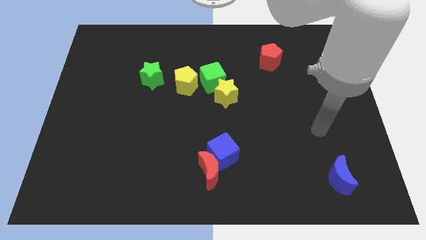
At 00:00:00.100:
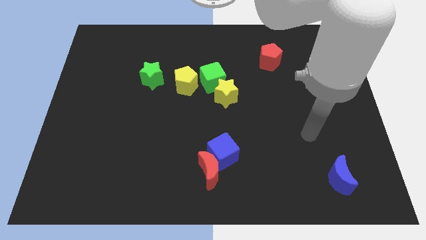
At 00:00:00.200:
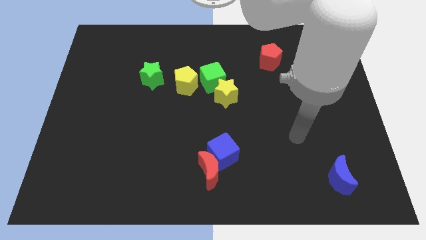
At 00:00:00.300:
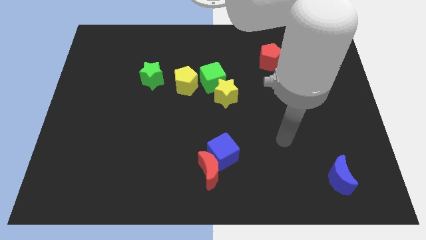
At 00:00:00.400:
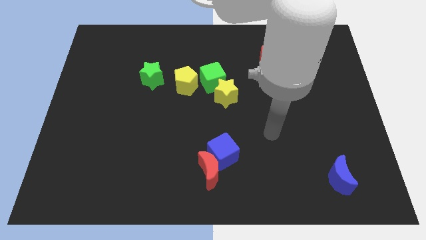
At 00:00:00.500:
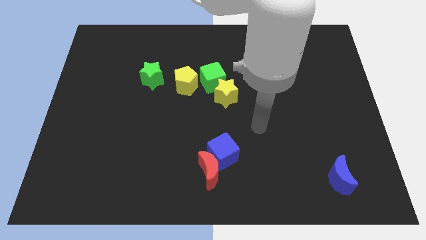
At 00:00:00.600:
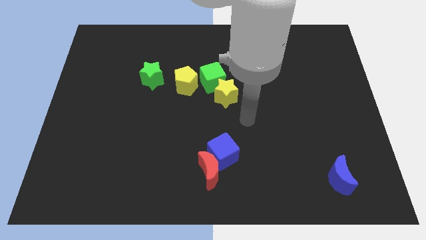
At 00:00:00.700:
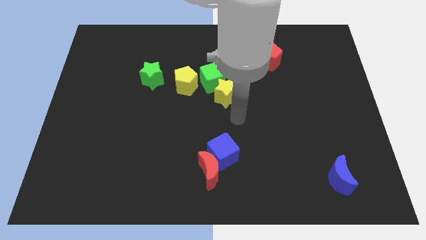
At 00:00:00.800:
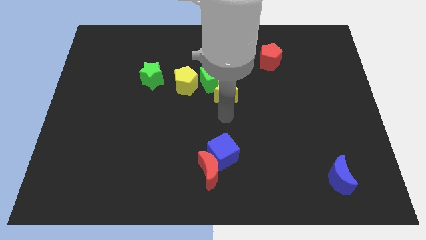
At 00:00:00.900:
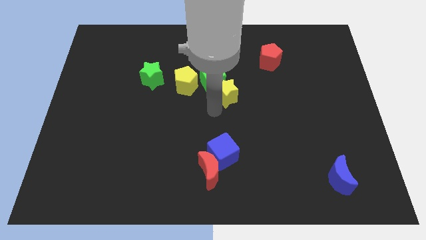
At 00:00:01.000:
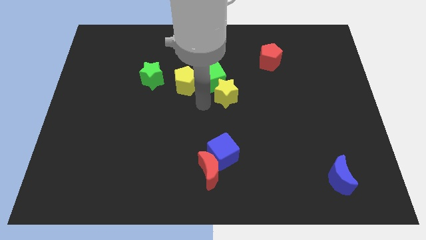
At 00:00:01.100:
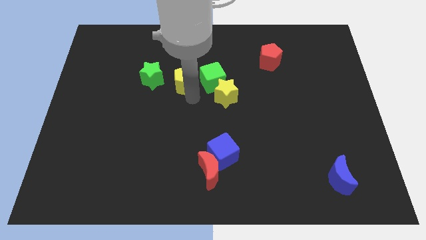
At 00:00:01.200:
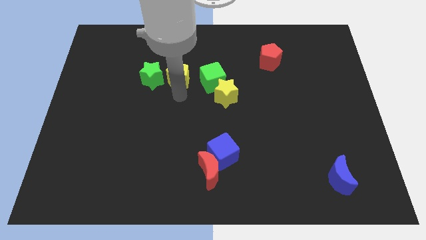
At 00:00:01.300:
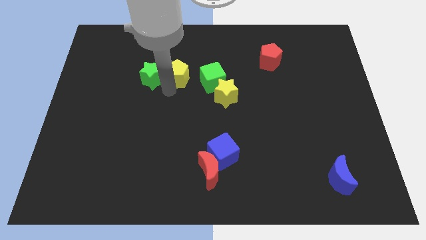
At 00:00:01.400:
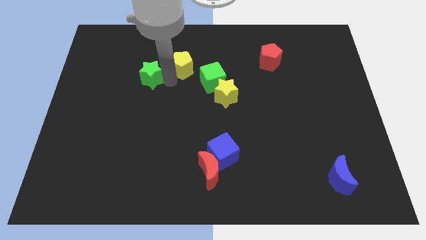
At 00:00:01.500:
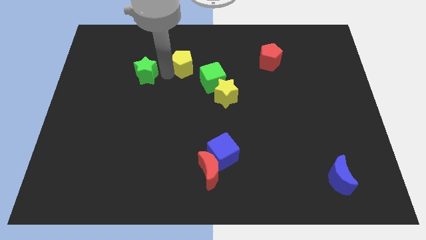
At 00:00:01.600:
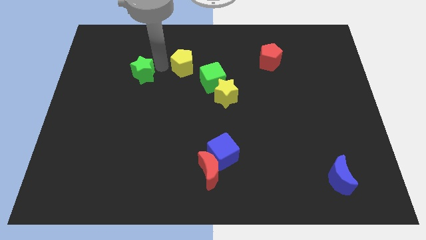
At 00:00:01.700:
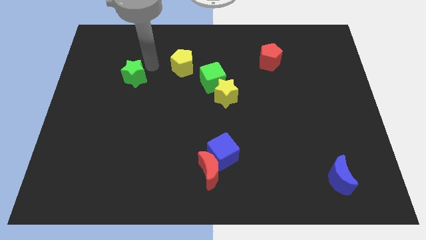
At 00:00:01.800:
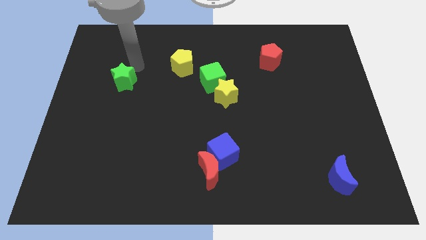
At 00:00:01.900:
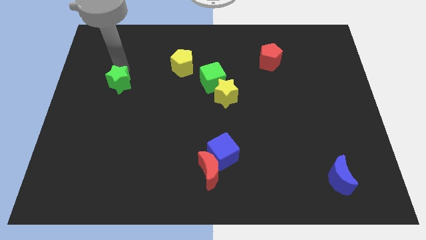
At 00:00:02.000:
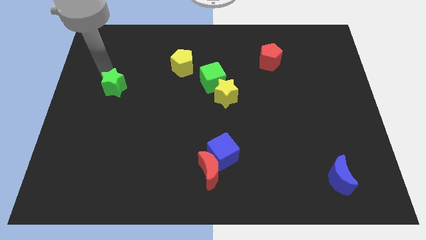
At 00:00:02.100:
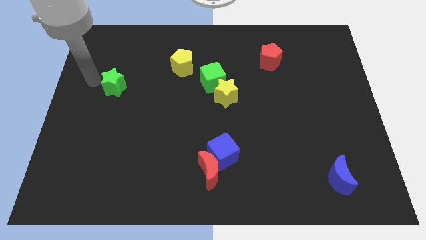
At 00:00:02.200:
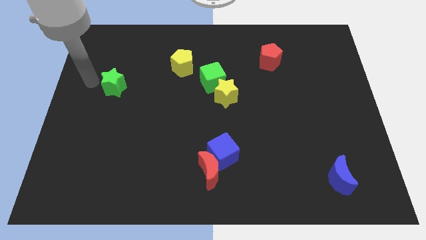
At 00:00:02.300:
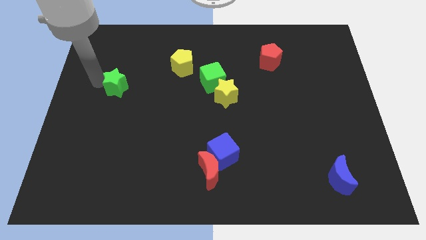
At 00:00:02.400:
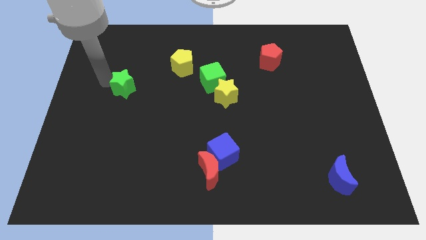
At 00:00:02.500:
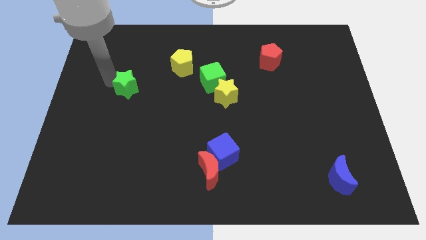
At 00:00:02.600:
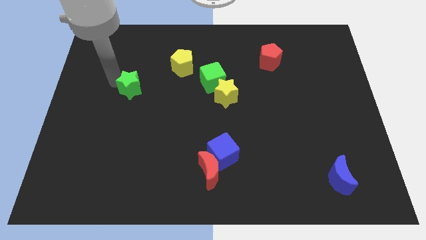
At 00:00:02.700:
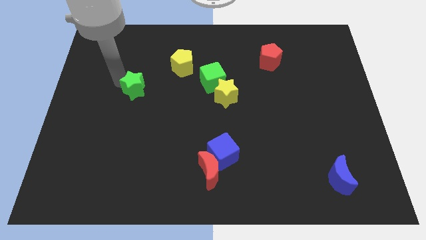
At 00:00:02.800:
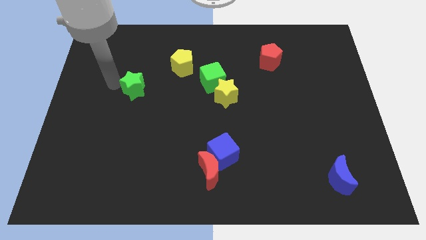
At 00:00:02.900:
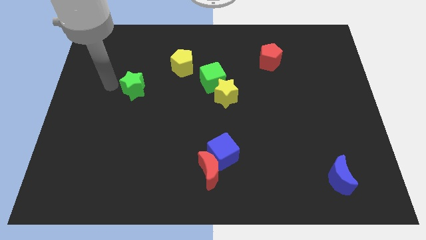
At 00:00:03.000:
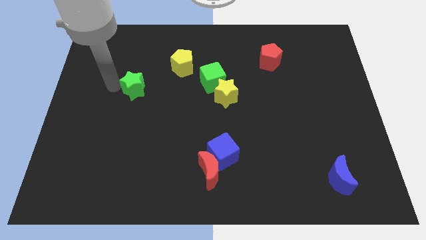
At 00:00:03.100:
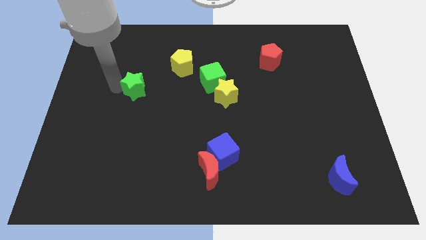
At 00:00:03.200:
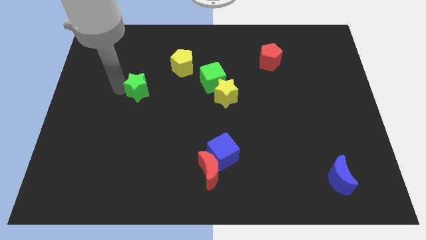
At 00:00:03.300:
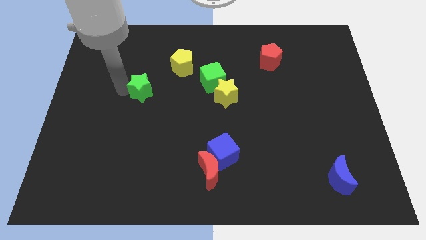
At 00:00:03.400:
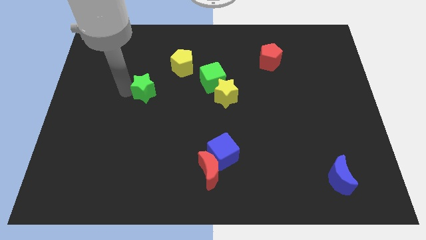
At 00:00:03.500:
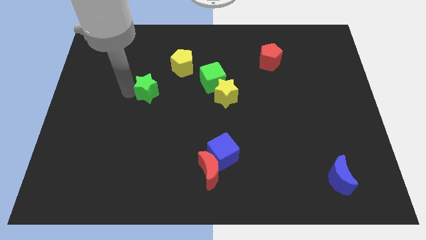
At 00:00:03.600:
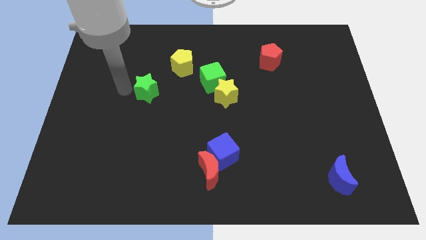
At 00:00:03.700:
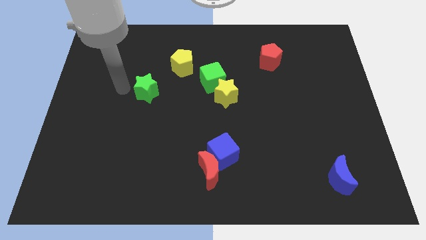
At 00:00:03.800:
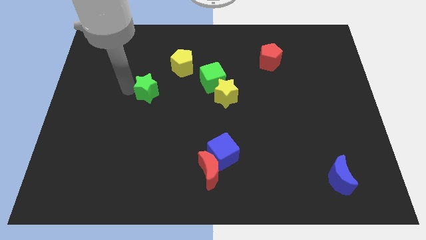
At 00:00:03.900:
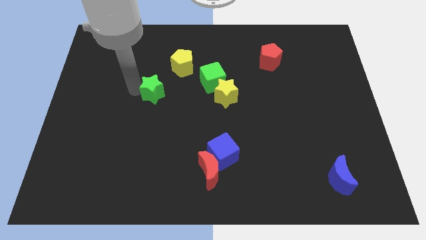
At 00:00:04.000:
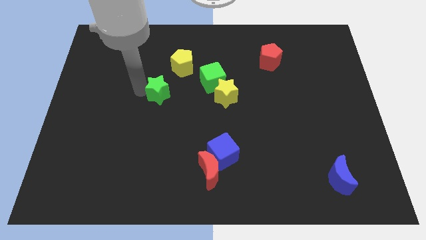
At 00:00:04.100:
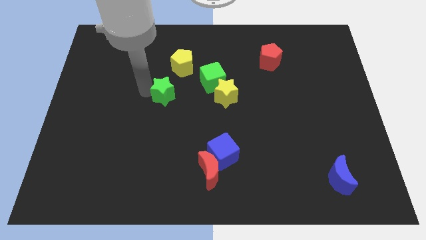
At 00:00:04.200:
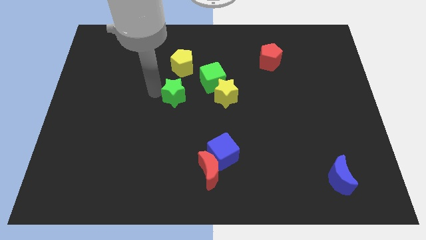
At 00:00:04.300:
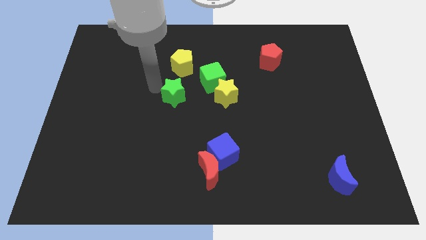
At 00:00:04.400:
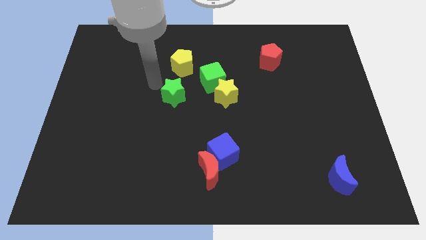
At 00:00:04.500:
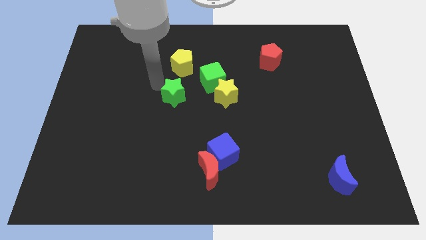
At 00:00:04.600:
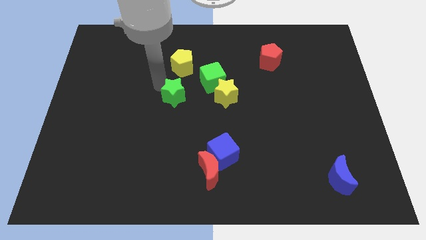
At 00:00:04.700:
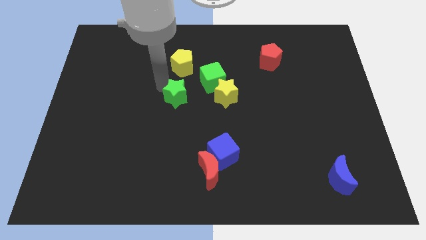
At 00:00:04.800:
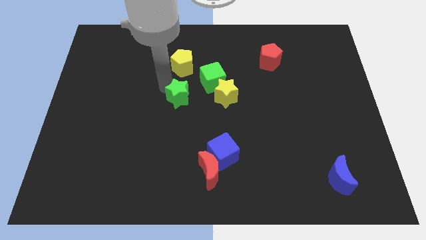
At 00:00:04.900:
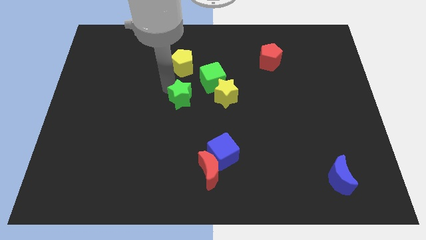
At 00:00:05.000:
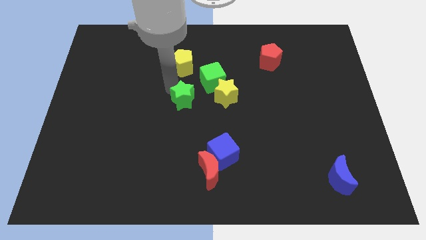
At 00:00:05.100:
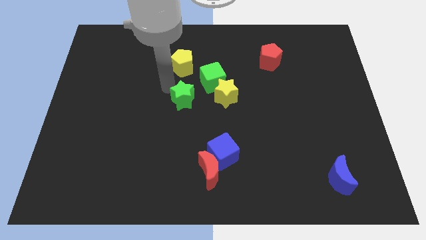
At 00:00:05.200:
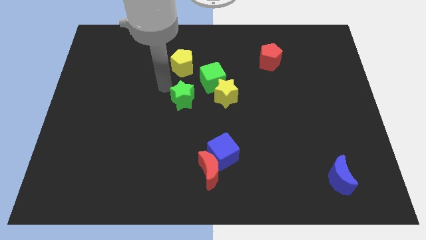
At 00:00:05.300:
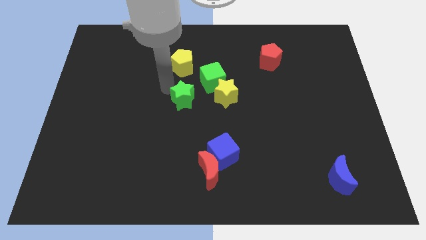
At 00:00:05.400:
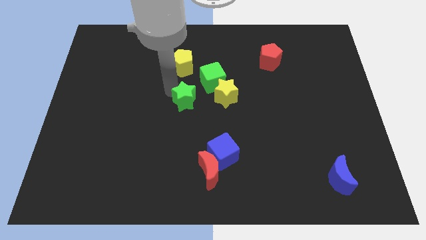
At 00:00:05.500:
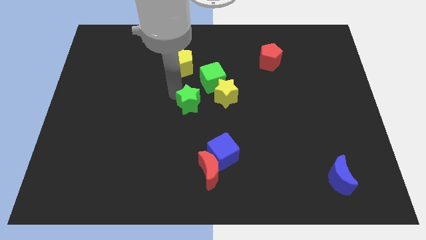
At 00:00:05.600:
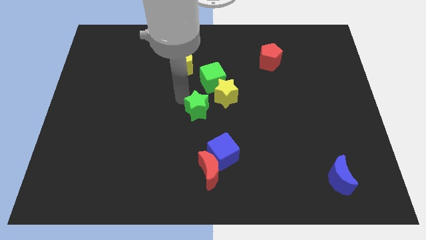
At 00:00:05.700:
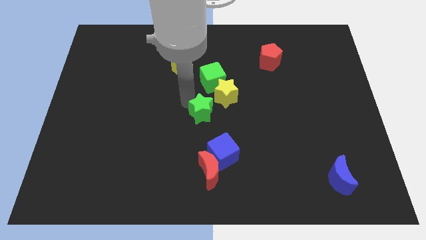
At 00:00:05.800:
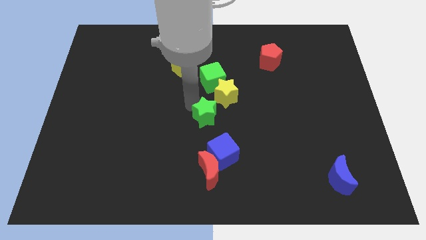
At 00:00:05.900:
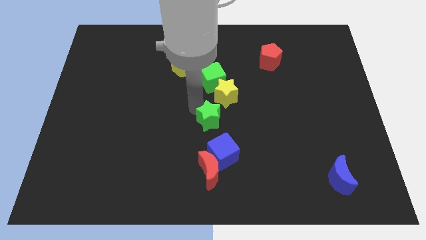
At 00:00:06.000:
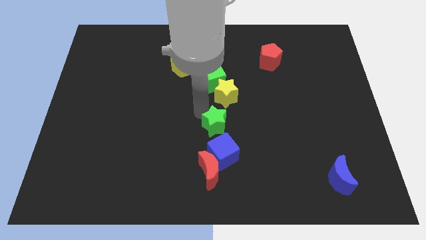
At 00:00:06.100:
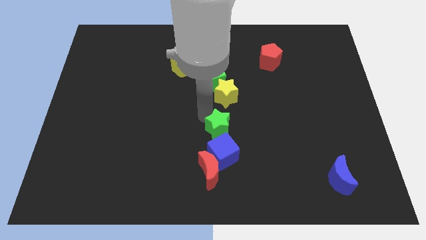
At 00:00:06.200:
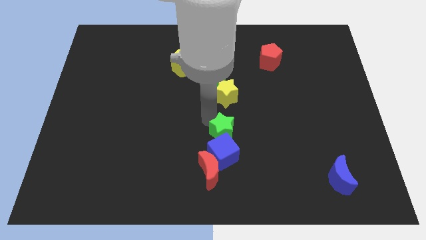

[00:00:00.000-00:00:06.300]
slide the green star to the top right side of the red moon
